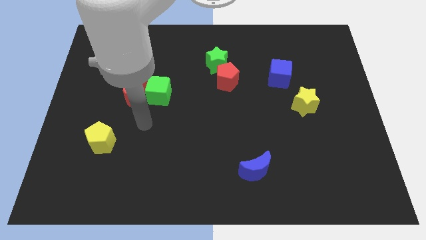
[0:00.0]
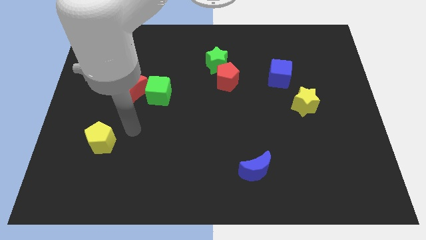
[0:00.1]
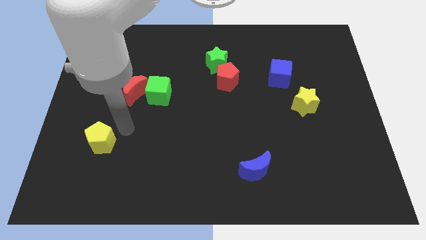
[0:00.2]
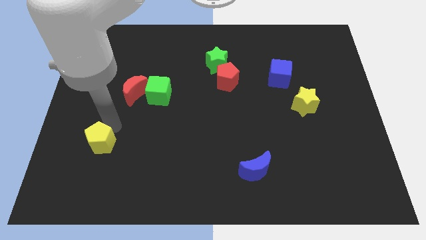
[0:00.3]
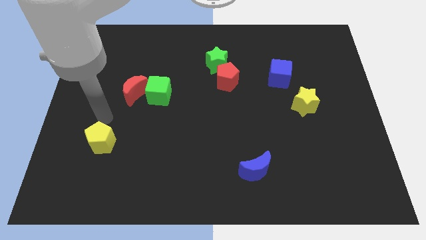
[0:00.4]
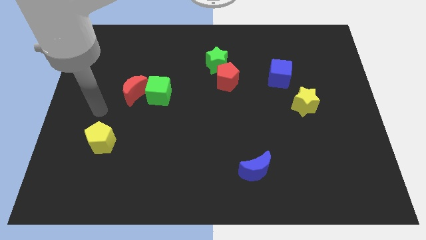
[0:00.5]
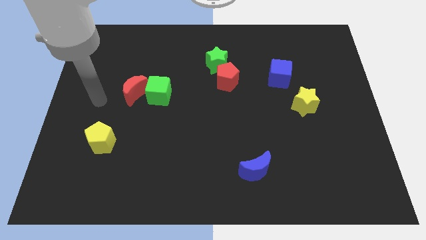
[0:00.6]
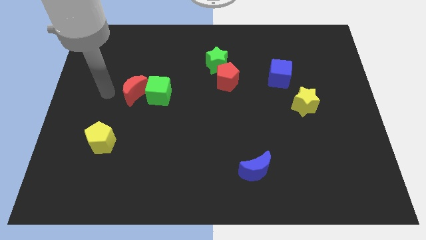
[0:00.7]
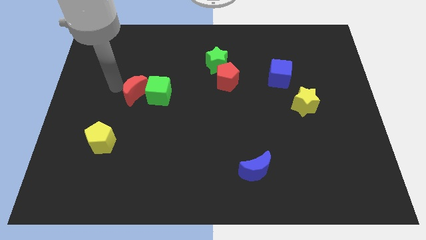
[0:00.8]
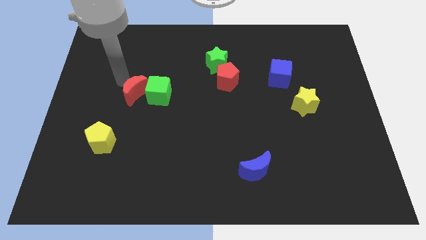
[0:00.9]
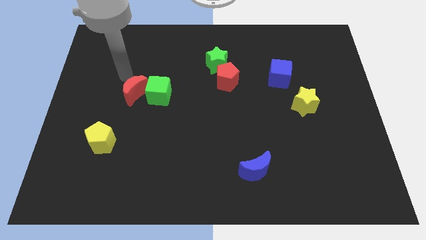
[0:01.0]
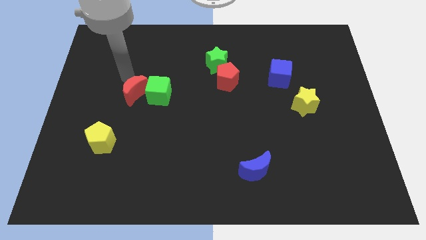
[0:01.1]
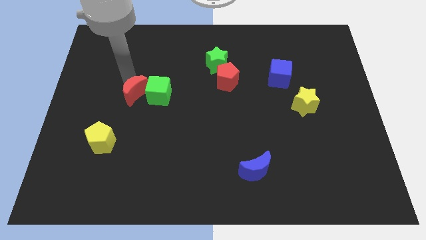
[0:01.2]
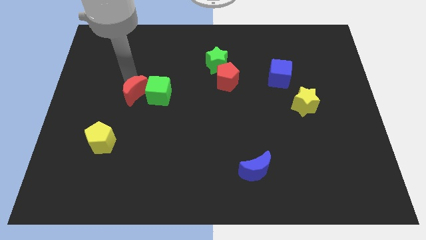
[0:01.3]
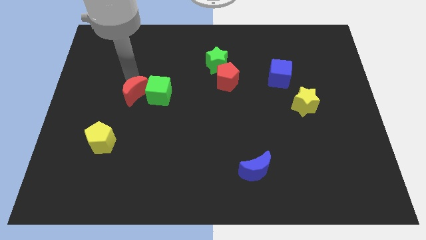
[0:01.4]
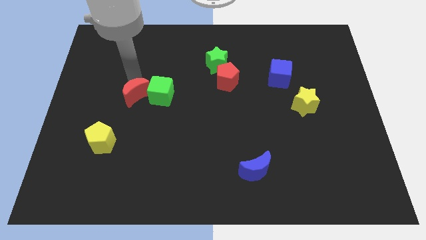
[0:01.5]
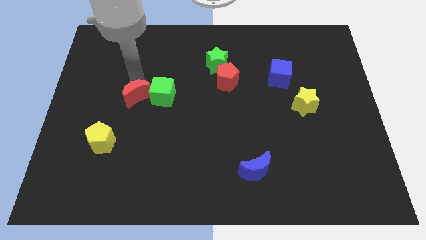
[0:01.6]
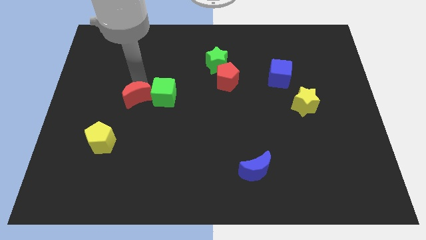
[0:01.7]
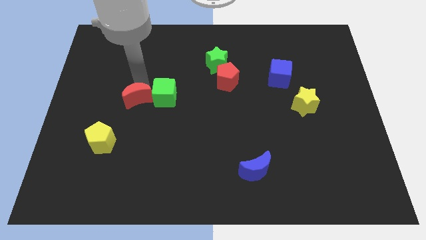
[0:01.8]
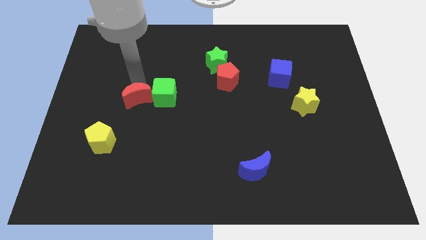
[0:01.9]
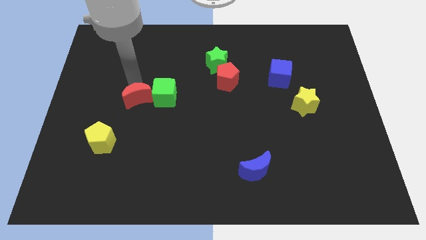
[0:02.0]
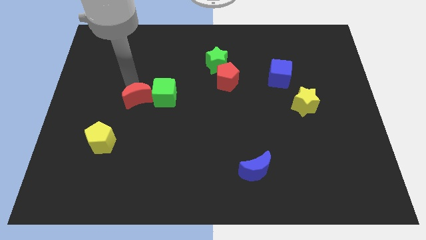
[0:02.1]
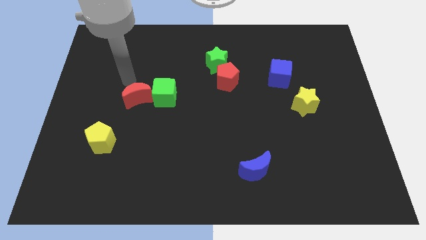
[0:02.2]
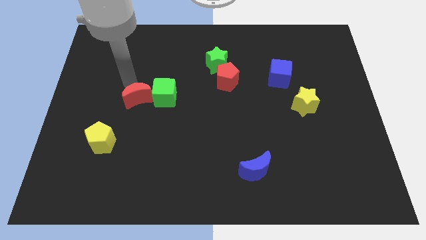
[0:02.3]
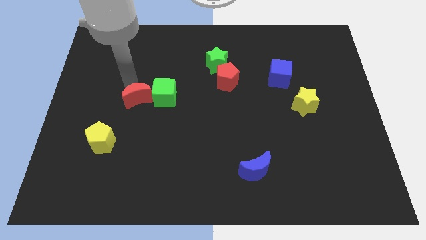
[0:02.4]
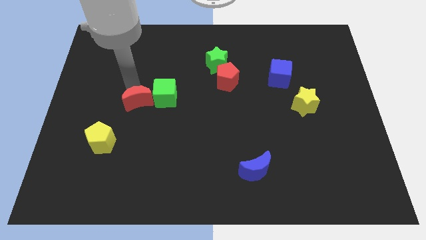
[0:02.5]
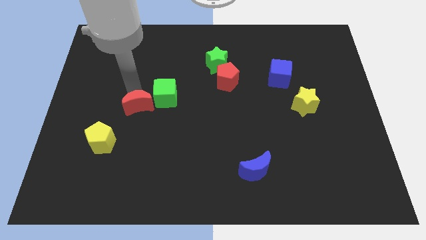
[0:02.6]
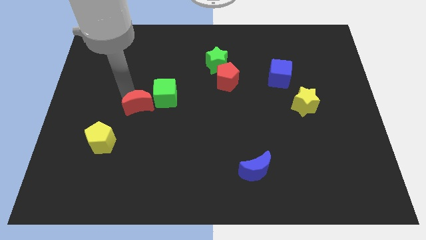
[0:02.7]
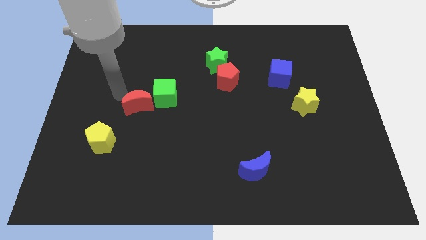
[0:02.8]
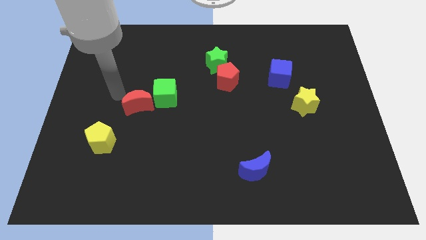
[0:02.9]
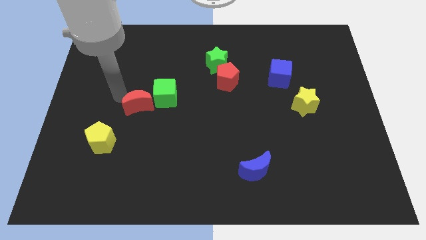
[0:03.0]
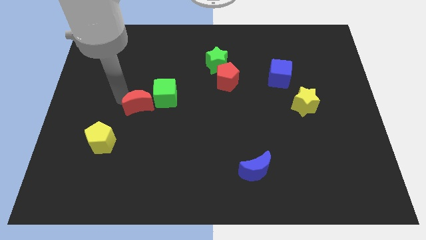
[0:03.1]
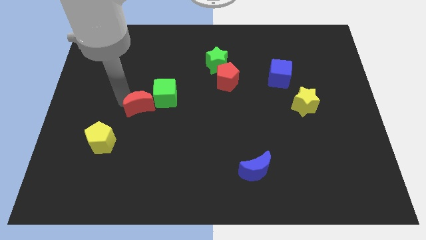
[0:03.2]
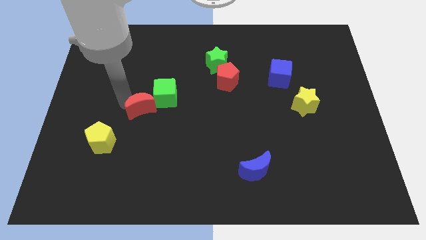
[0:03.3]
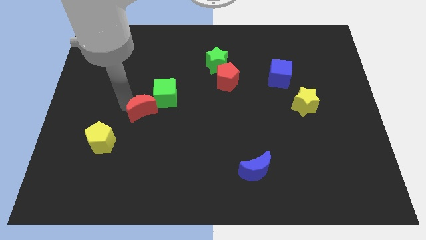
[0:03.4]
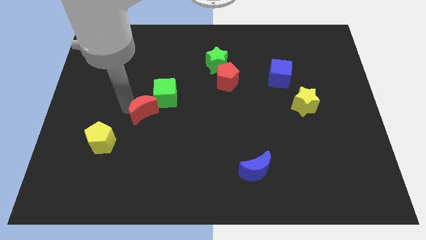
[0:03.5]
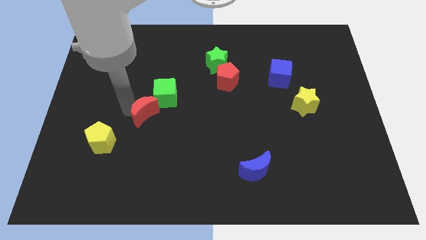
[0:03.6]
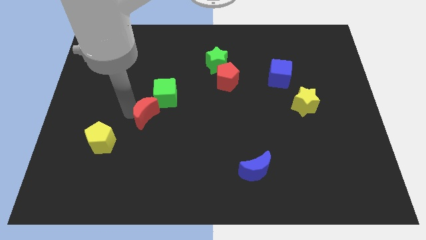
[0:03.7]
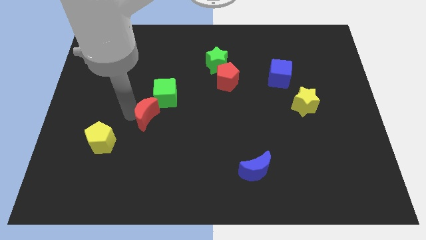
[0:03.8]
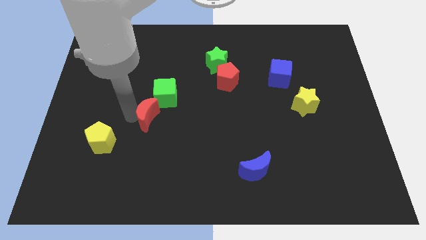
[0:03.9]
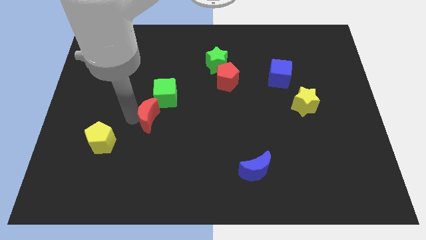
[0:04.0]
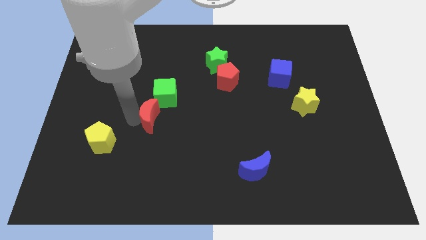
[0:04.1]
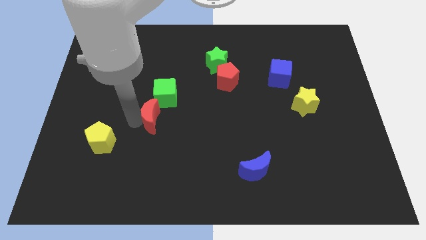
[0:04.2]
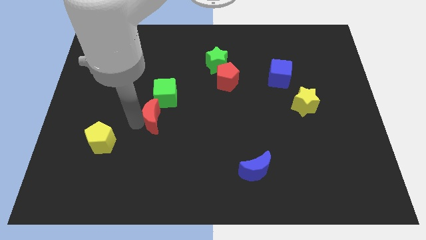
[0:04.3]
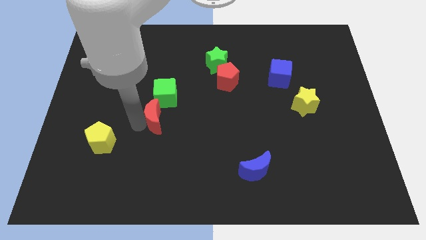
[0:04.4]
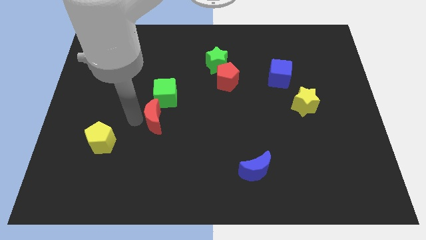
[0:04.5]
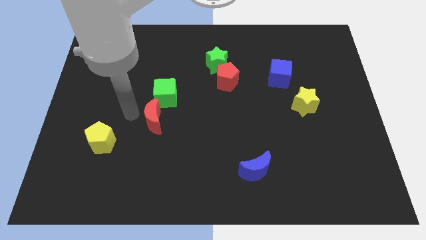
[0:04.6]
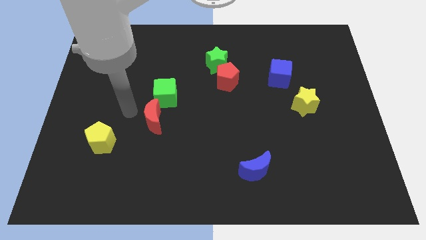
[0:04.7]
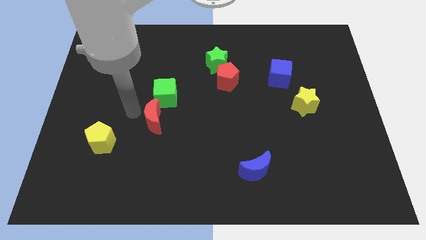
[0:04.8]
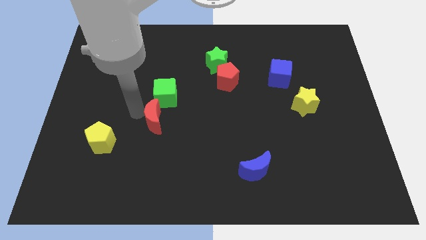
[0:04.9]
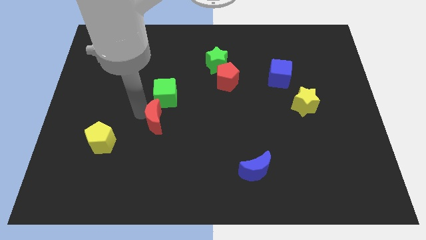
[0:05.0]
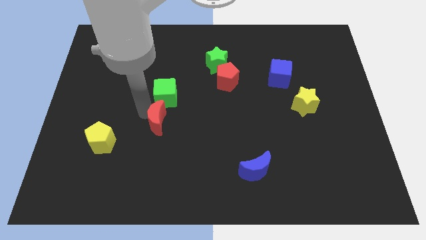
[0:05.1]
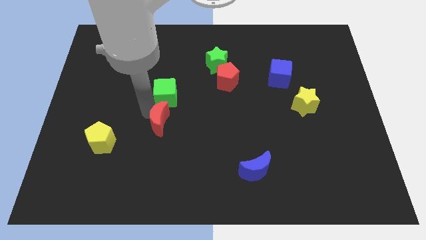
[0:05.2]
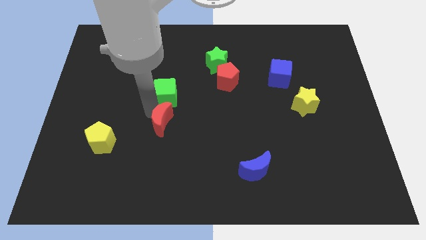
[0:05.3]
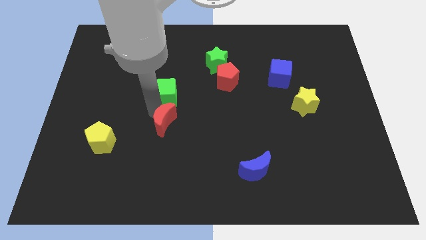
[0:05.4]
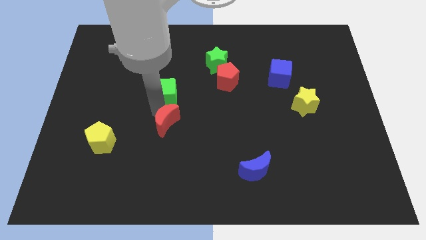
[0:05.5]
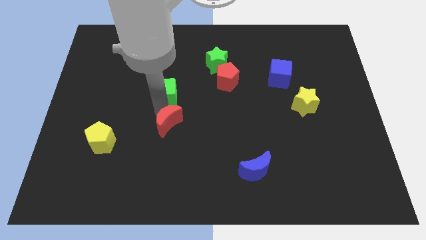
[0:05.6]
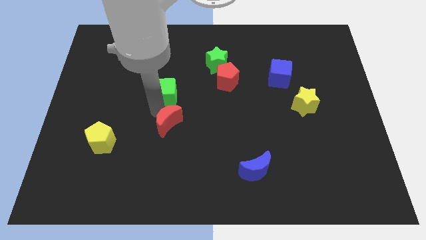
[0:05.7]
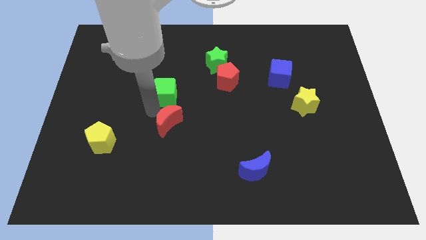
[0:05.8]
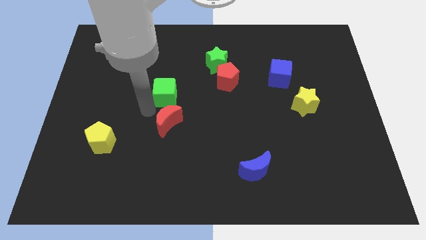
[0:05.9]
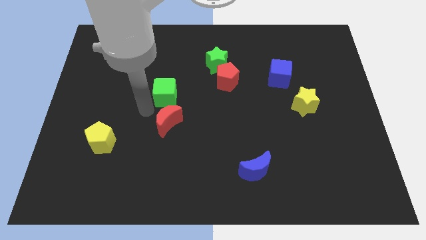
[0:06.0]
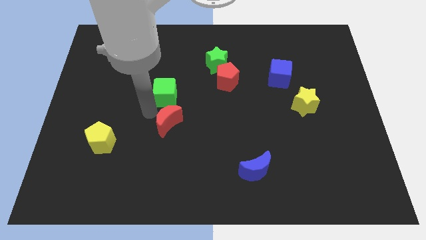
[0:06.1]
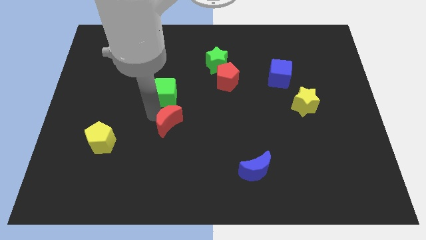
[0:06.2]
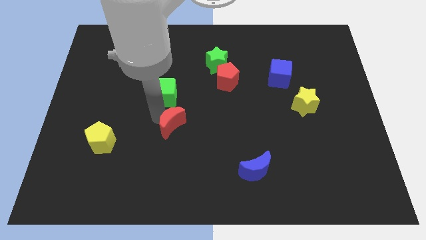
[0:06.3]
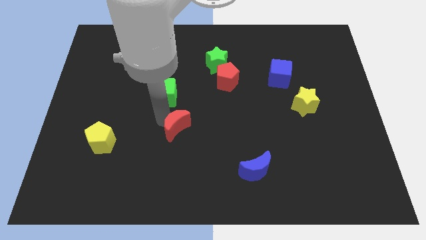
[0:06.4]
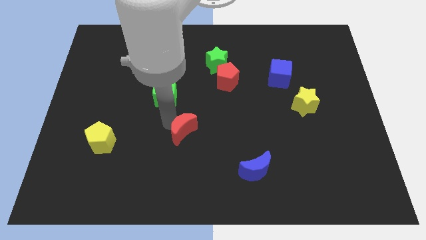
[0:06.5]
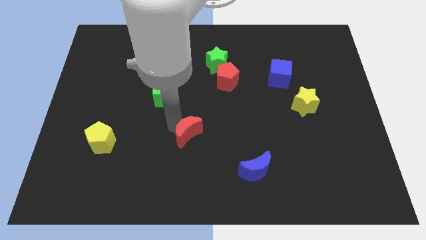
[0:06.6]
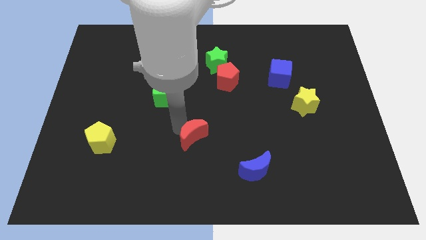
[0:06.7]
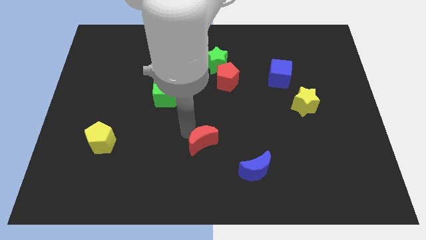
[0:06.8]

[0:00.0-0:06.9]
move the red moon down and right diagonally

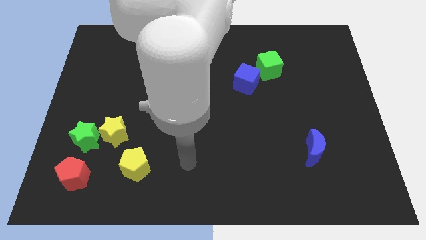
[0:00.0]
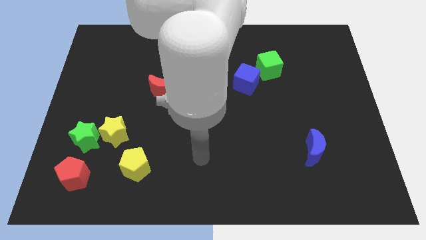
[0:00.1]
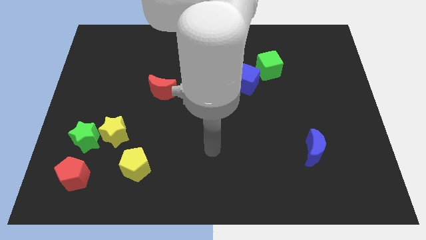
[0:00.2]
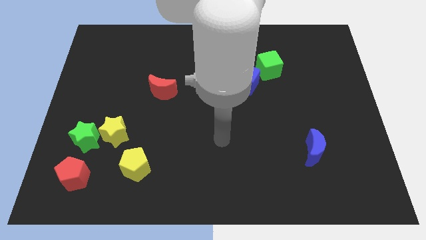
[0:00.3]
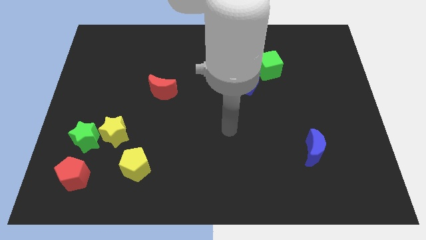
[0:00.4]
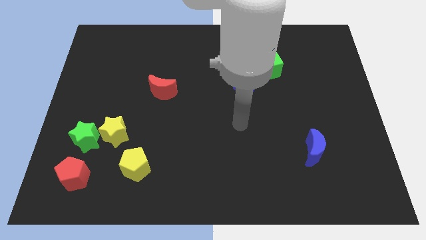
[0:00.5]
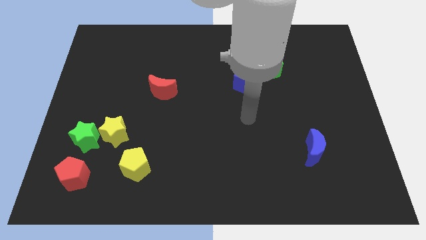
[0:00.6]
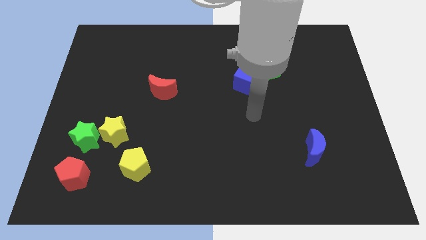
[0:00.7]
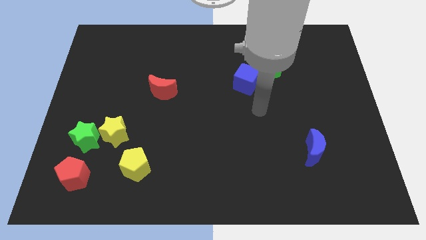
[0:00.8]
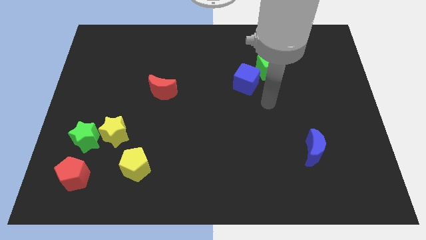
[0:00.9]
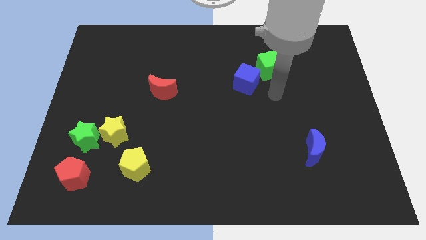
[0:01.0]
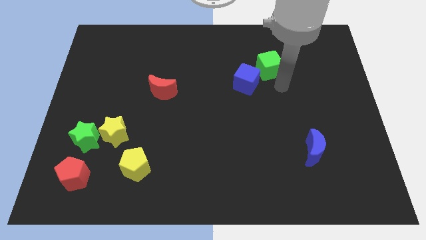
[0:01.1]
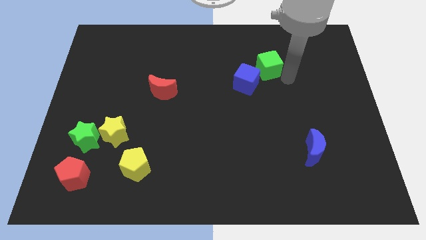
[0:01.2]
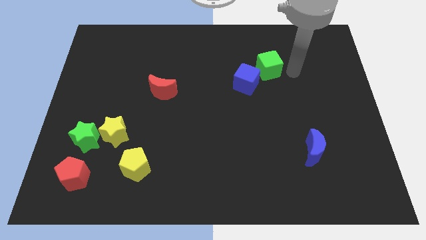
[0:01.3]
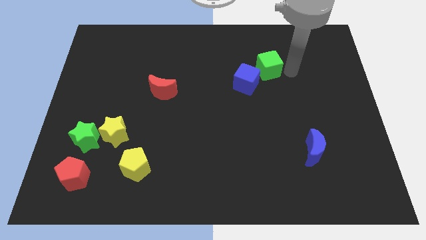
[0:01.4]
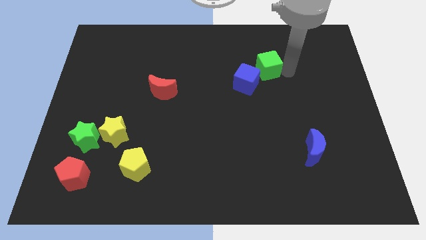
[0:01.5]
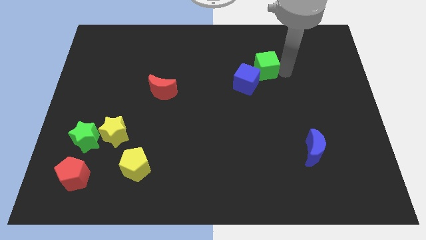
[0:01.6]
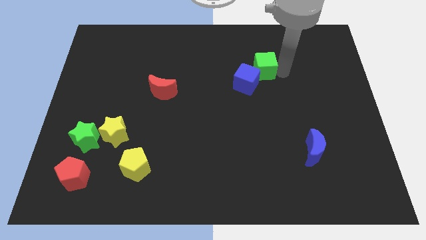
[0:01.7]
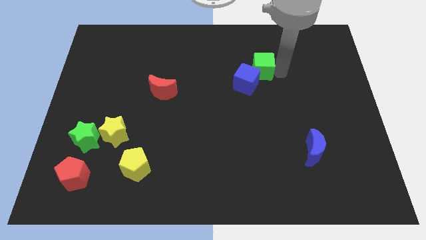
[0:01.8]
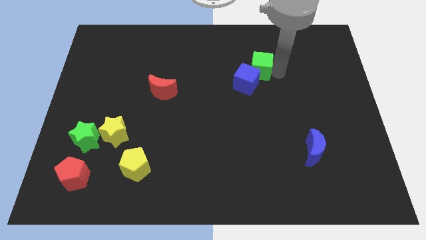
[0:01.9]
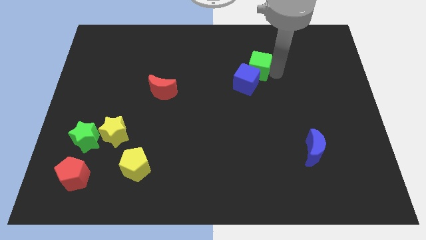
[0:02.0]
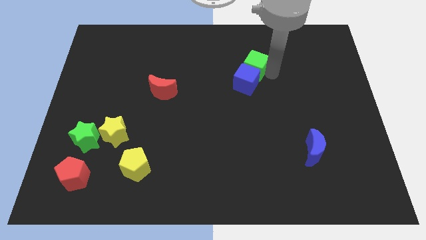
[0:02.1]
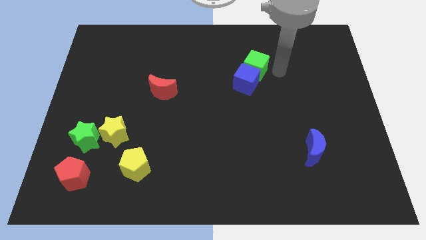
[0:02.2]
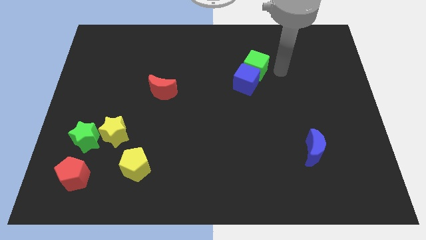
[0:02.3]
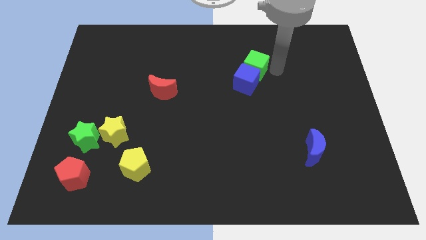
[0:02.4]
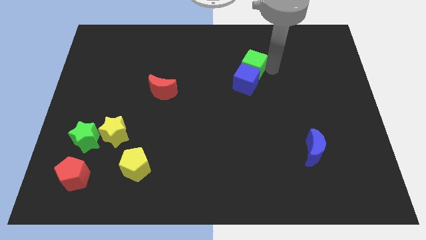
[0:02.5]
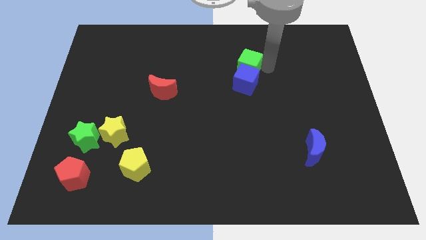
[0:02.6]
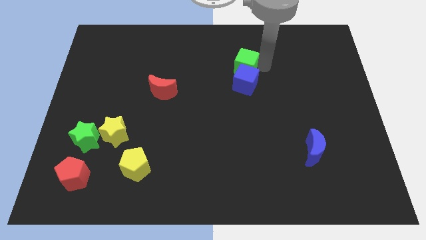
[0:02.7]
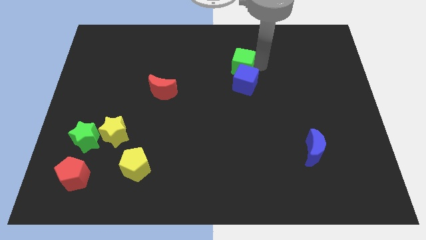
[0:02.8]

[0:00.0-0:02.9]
slide the green cube left somewhat
